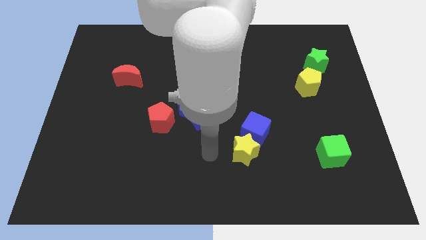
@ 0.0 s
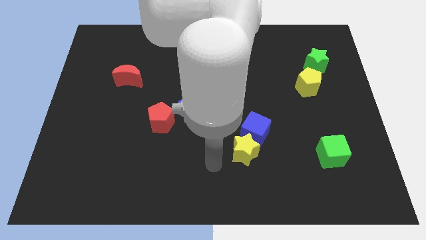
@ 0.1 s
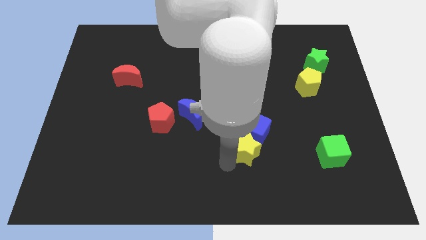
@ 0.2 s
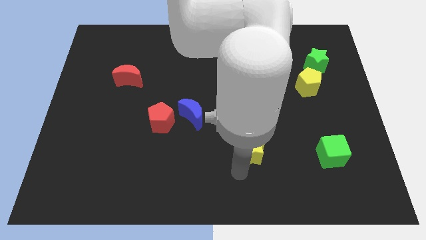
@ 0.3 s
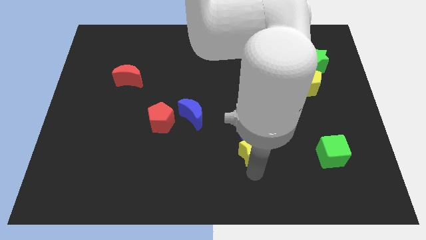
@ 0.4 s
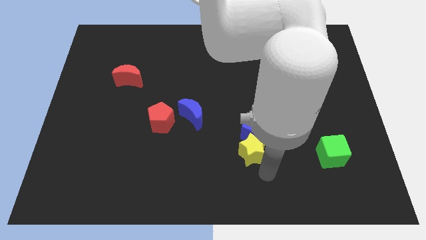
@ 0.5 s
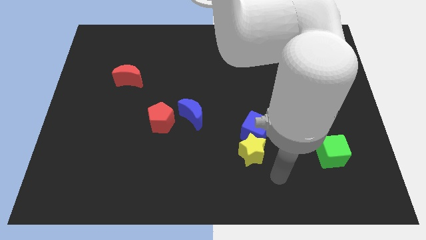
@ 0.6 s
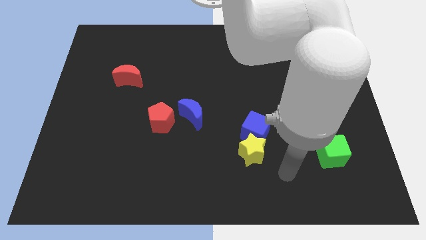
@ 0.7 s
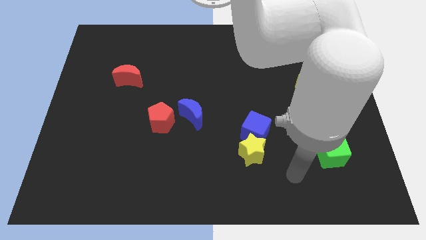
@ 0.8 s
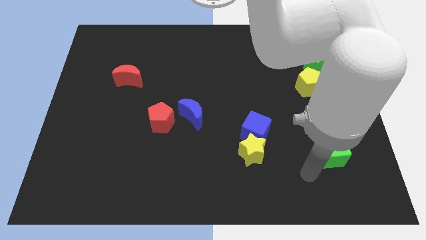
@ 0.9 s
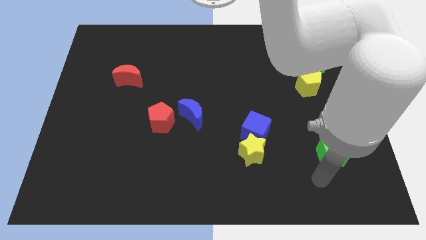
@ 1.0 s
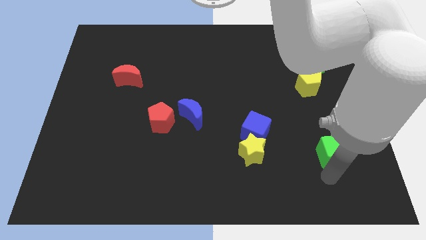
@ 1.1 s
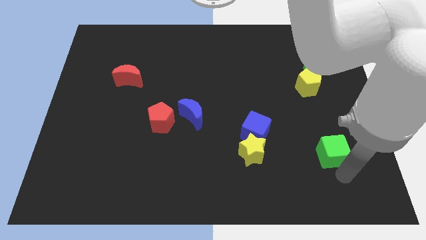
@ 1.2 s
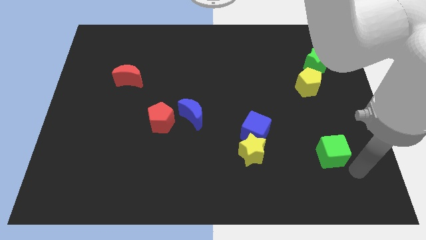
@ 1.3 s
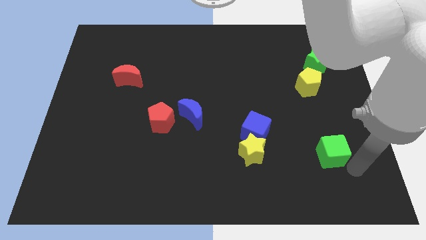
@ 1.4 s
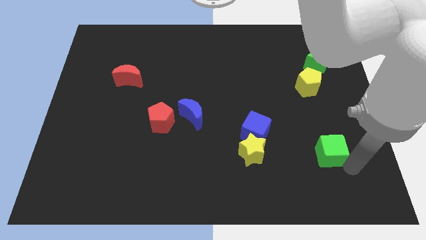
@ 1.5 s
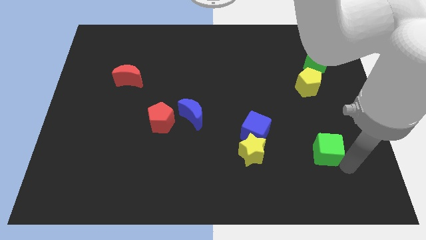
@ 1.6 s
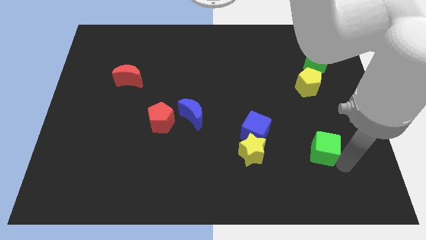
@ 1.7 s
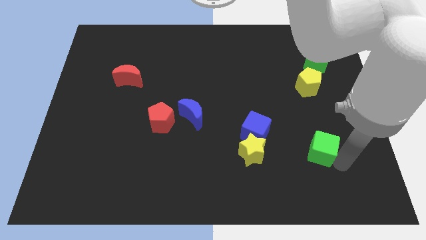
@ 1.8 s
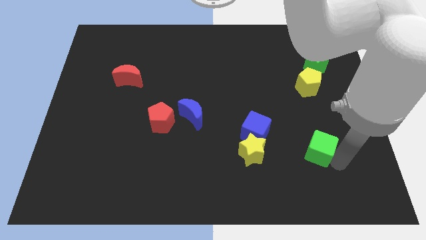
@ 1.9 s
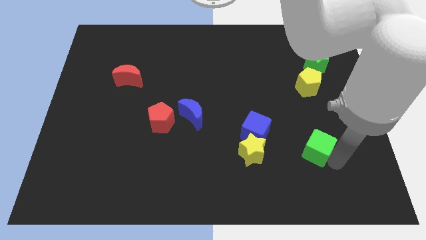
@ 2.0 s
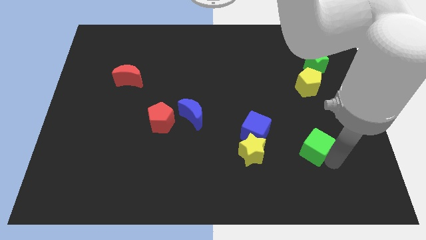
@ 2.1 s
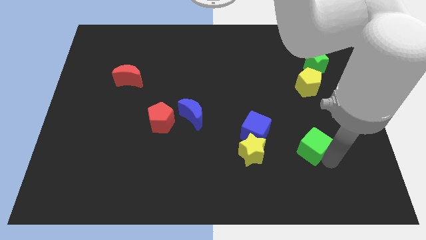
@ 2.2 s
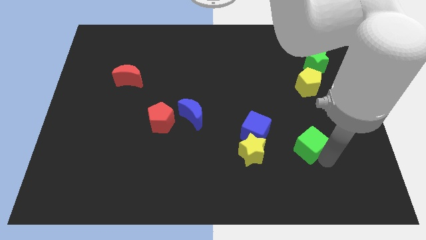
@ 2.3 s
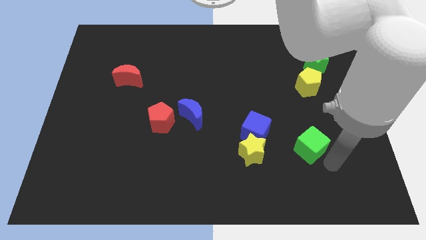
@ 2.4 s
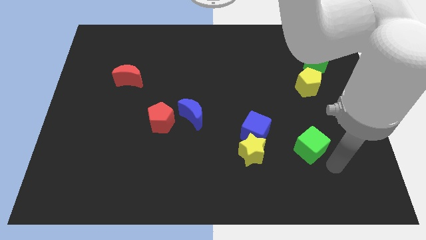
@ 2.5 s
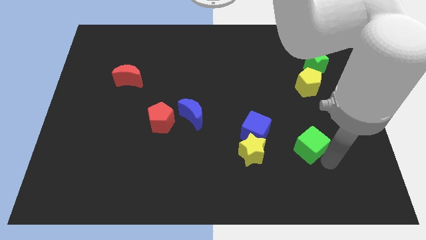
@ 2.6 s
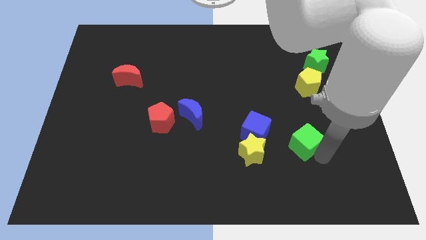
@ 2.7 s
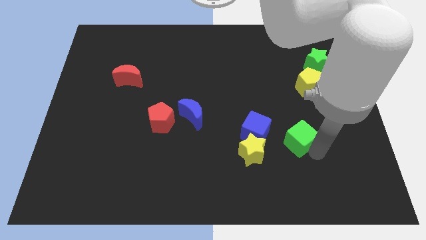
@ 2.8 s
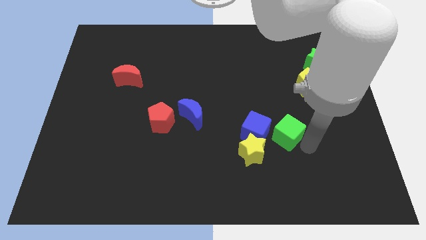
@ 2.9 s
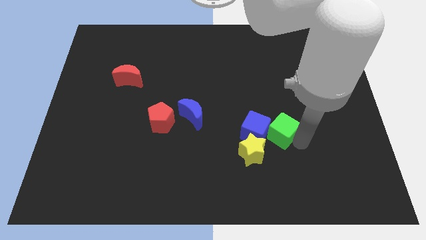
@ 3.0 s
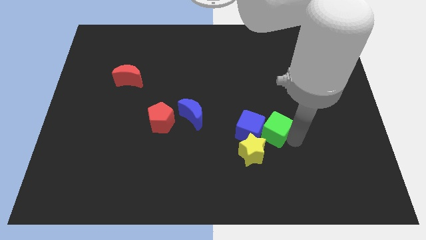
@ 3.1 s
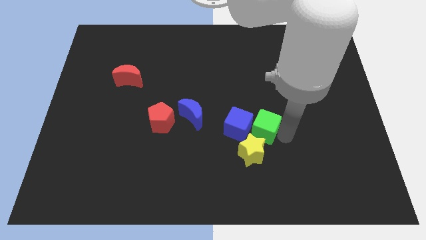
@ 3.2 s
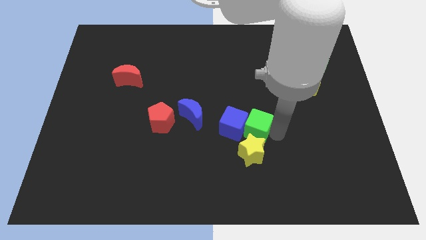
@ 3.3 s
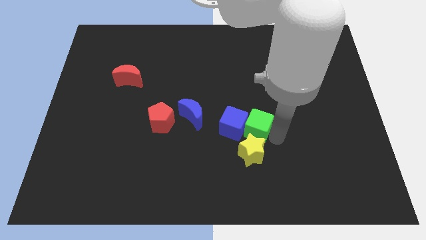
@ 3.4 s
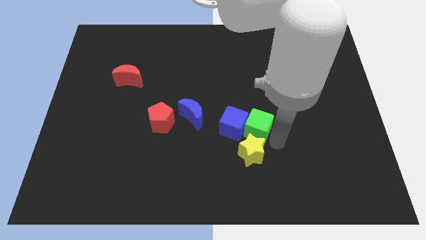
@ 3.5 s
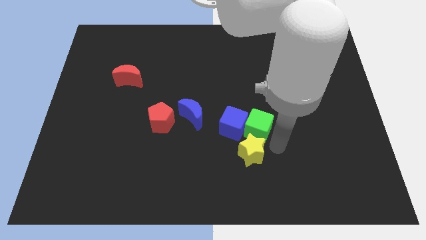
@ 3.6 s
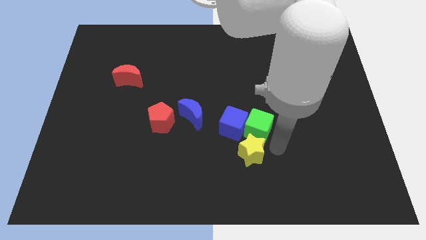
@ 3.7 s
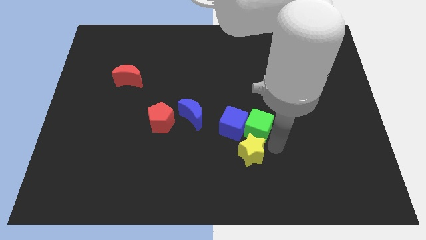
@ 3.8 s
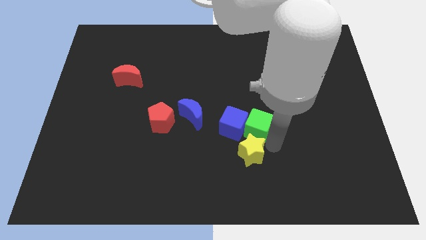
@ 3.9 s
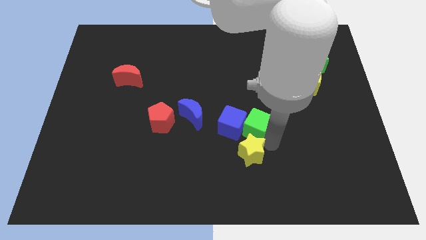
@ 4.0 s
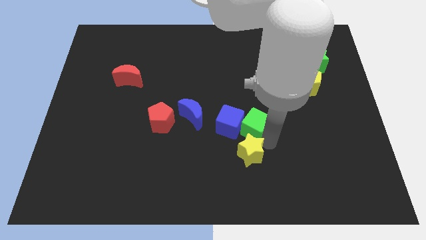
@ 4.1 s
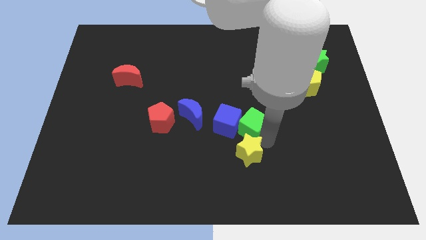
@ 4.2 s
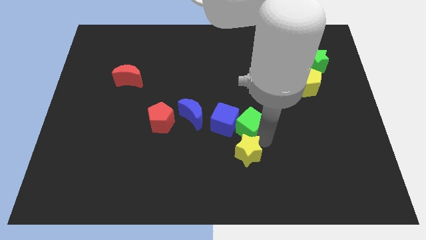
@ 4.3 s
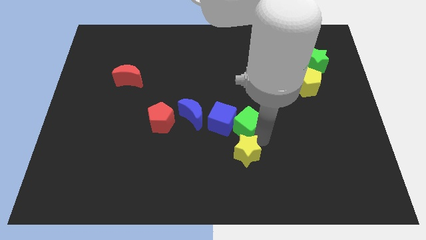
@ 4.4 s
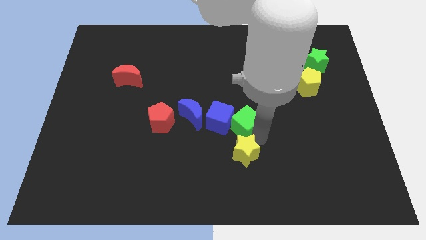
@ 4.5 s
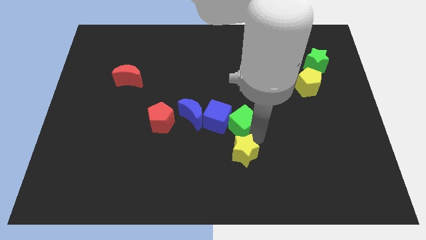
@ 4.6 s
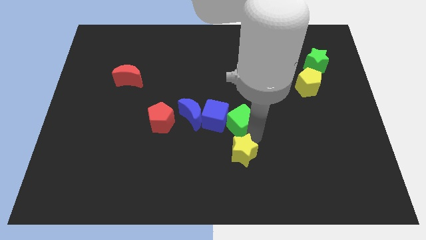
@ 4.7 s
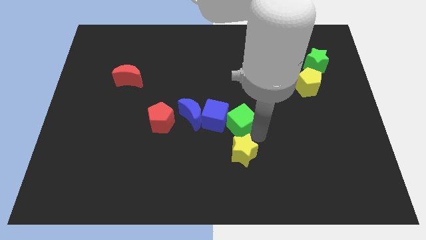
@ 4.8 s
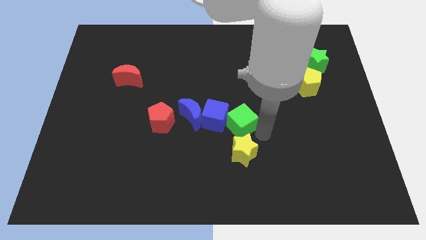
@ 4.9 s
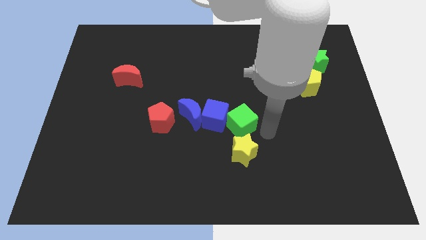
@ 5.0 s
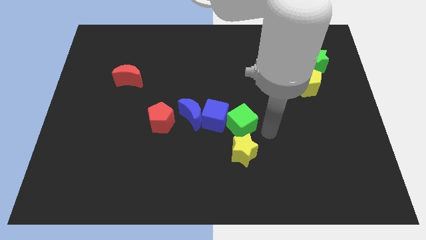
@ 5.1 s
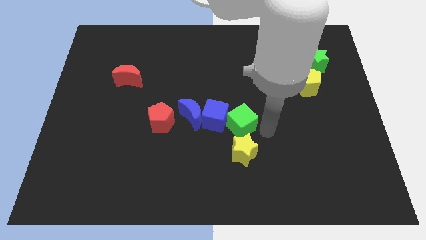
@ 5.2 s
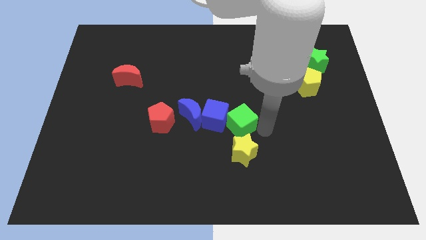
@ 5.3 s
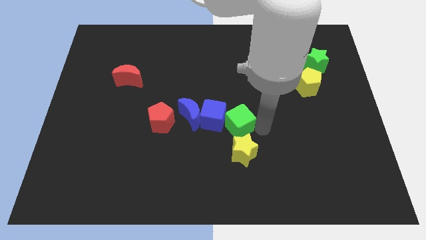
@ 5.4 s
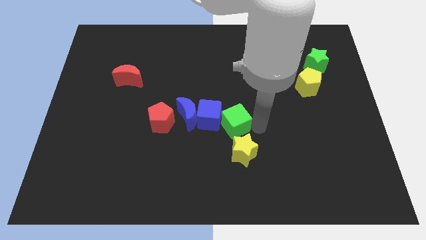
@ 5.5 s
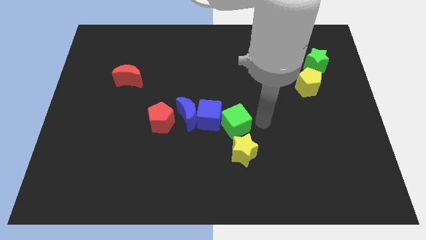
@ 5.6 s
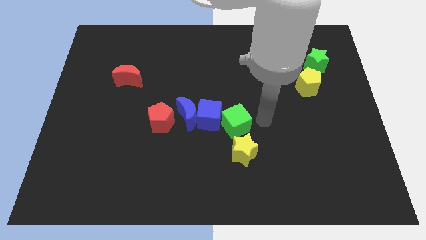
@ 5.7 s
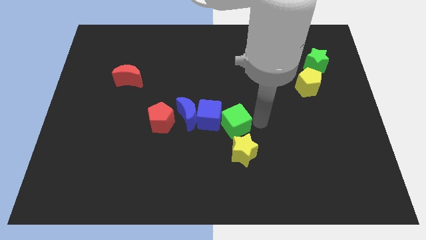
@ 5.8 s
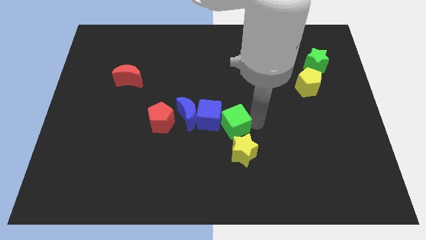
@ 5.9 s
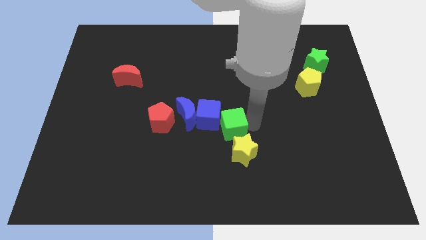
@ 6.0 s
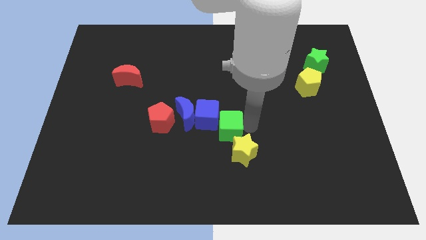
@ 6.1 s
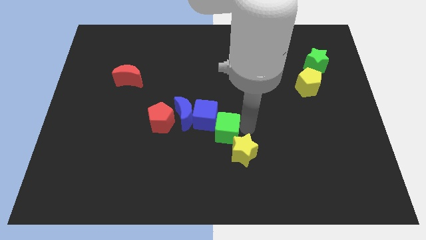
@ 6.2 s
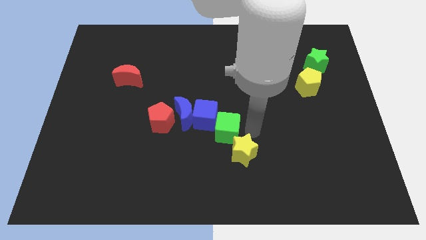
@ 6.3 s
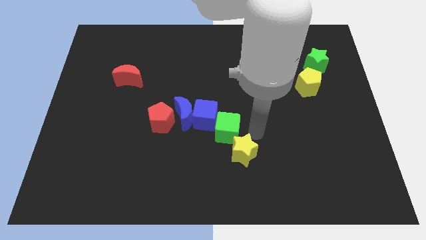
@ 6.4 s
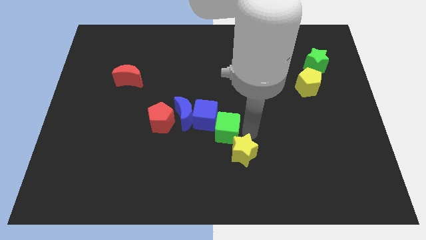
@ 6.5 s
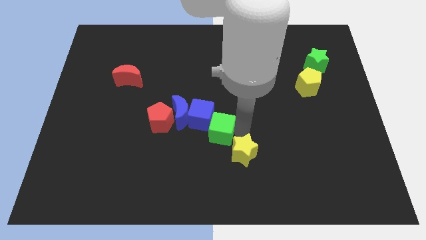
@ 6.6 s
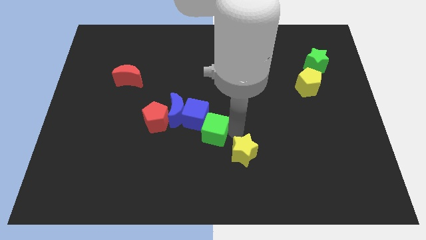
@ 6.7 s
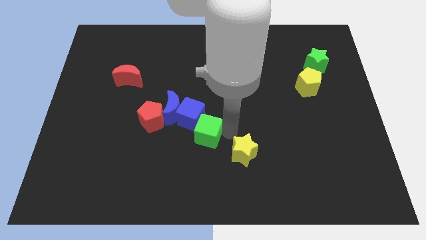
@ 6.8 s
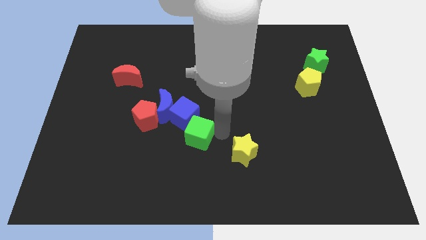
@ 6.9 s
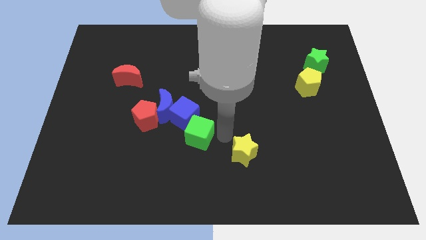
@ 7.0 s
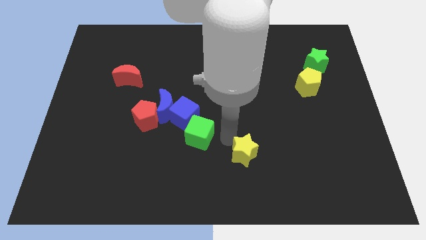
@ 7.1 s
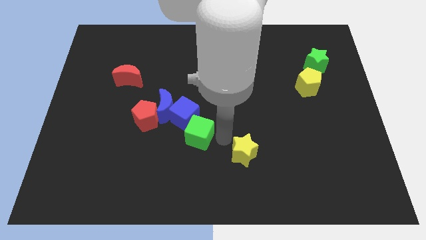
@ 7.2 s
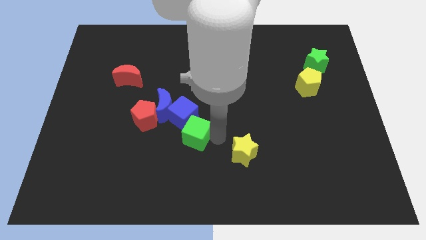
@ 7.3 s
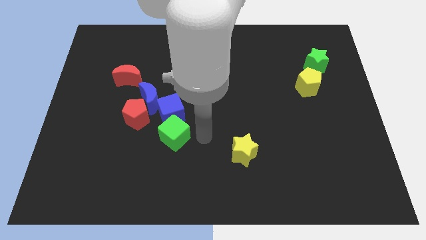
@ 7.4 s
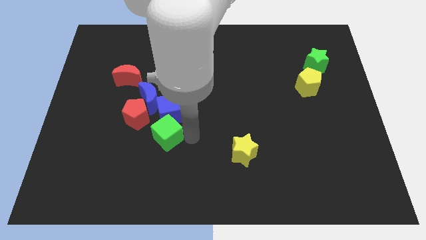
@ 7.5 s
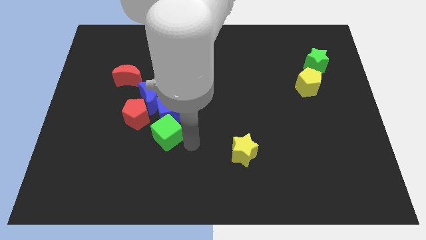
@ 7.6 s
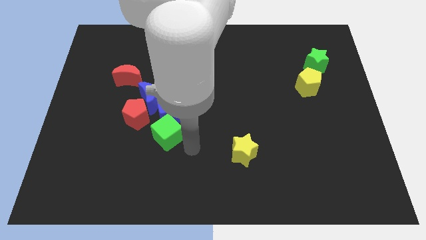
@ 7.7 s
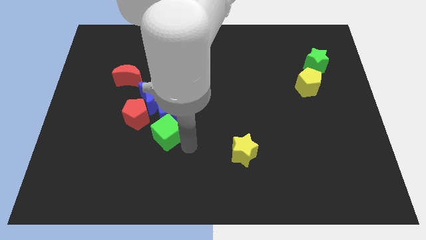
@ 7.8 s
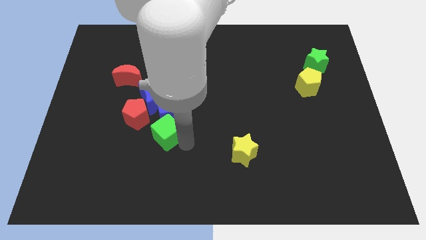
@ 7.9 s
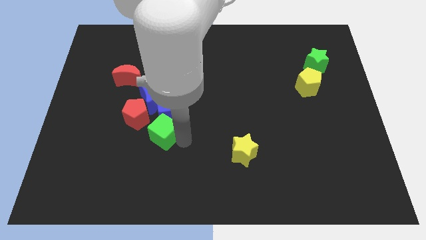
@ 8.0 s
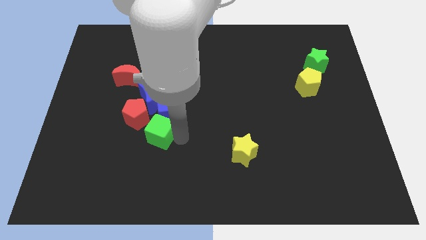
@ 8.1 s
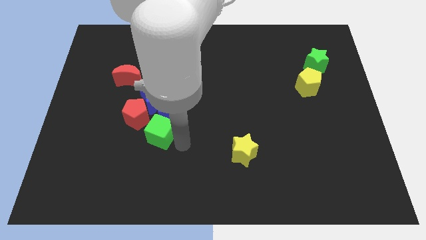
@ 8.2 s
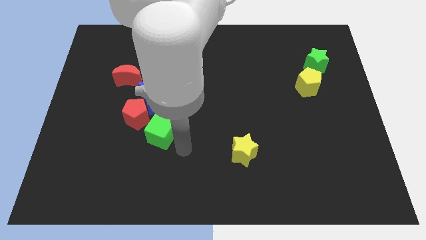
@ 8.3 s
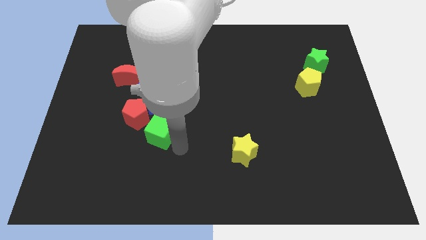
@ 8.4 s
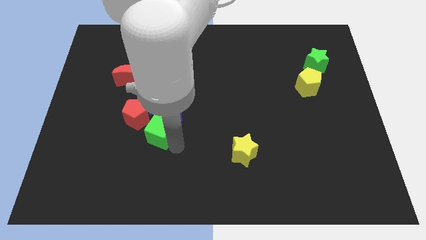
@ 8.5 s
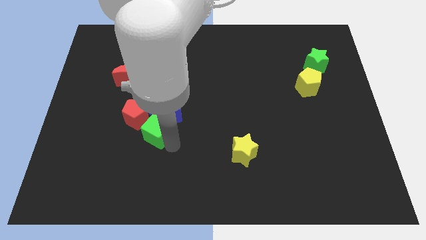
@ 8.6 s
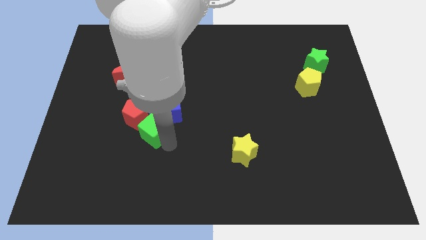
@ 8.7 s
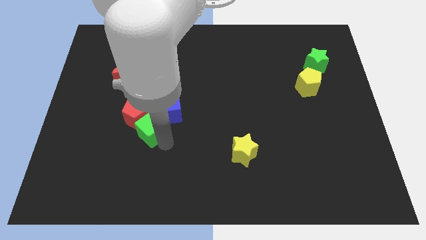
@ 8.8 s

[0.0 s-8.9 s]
push the green cube close to the red pentagon
